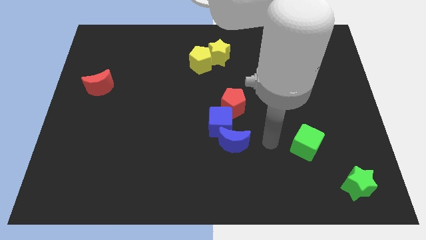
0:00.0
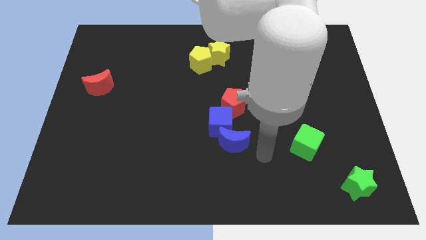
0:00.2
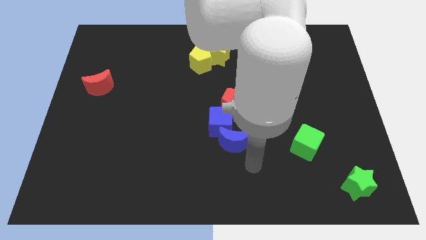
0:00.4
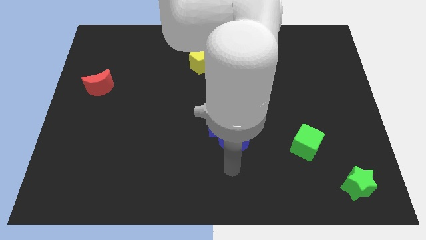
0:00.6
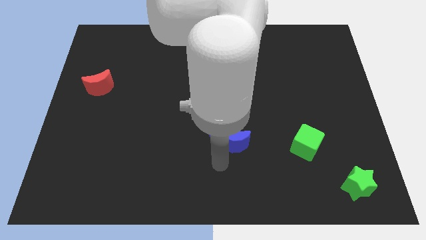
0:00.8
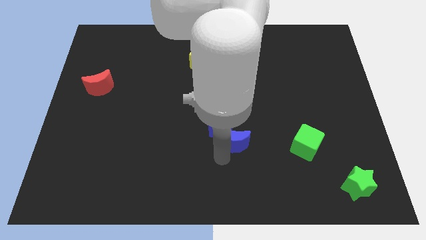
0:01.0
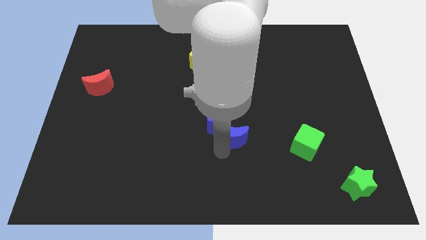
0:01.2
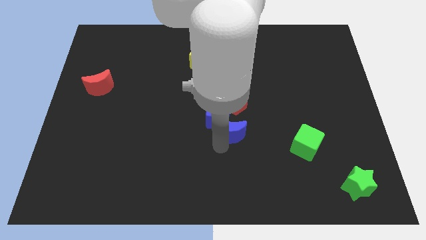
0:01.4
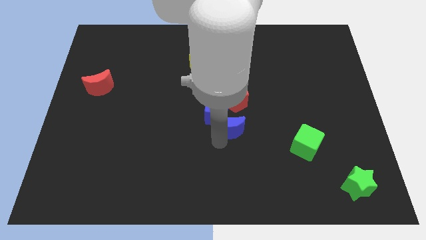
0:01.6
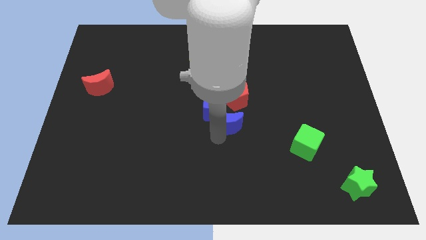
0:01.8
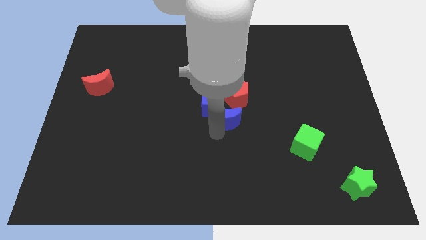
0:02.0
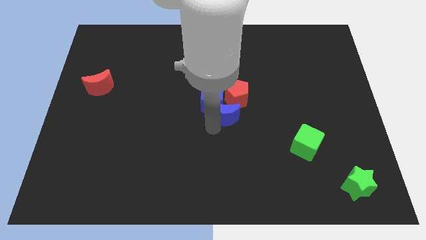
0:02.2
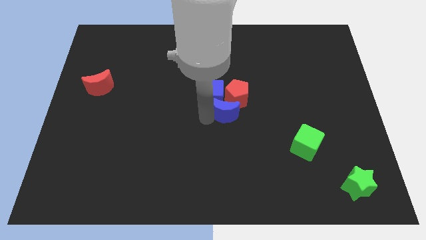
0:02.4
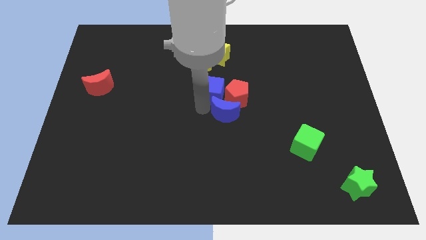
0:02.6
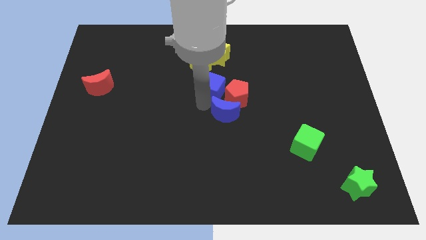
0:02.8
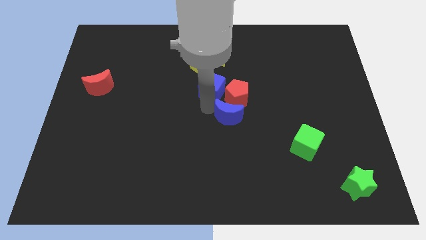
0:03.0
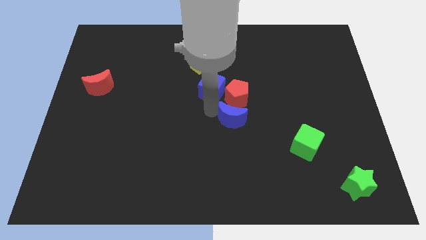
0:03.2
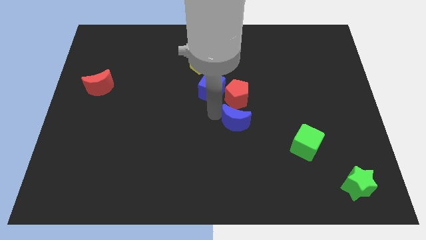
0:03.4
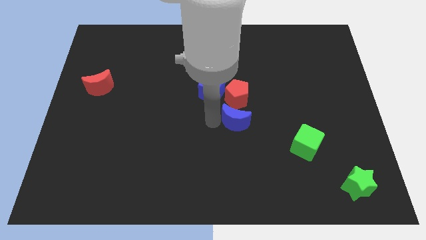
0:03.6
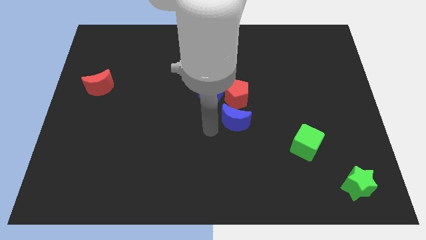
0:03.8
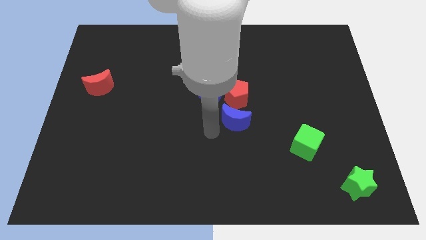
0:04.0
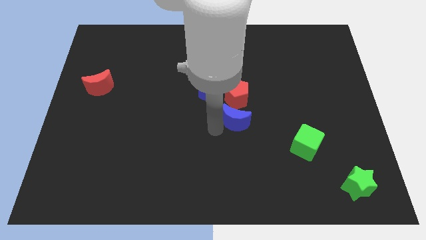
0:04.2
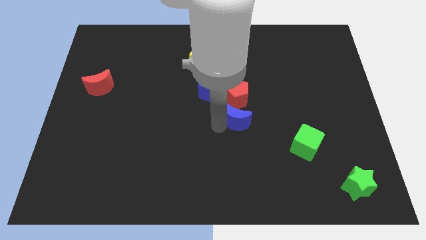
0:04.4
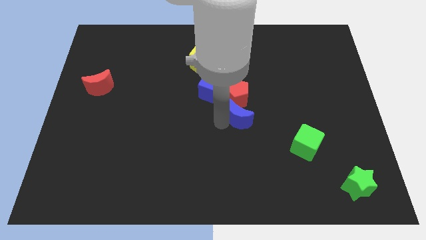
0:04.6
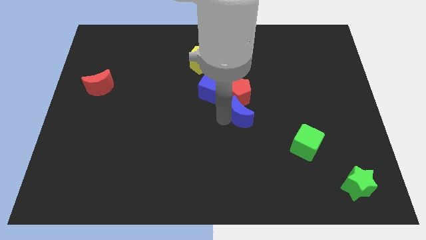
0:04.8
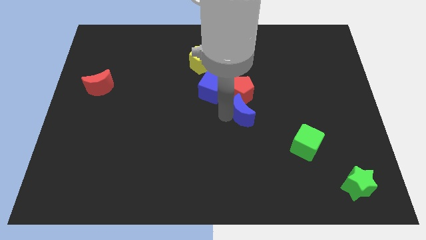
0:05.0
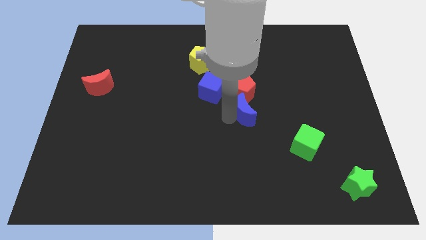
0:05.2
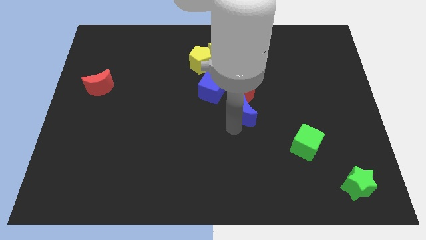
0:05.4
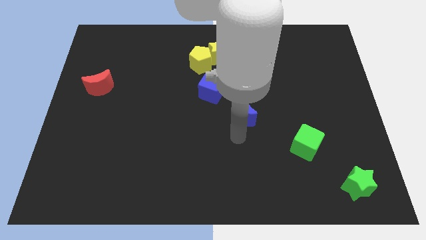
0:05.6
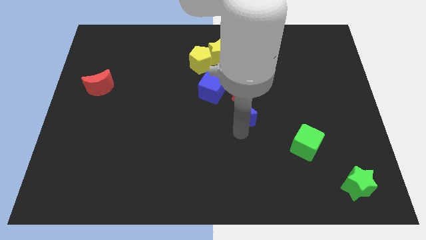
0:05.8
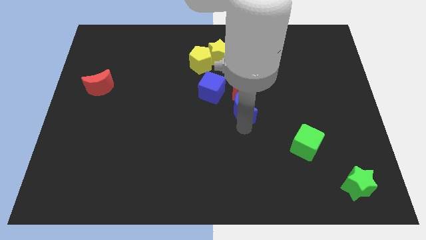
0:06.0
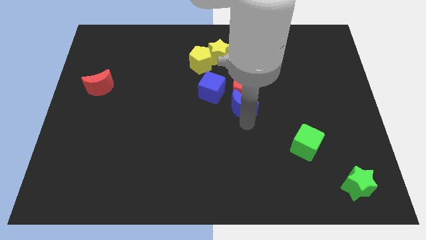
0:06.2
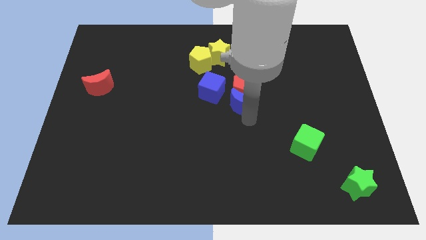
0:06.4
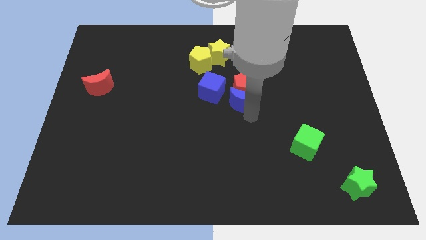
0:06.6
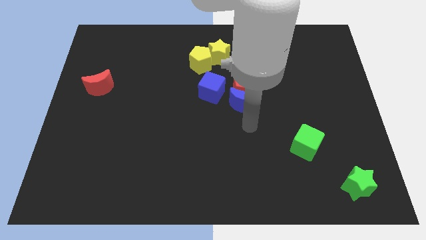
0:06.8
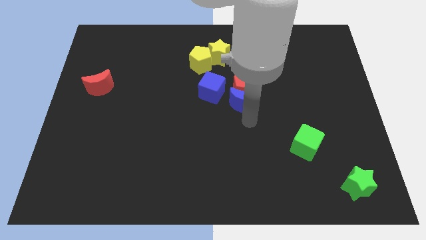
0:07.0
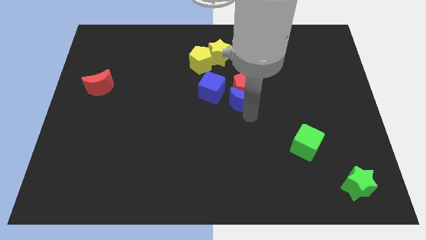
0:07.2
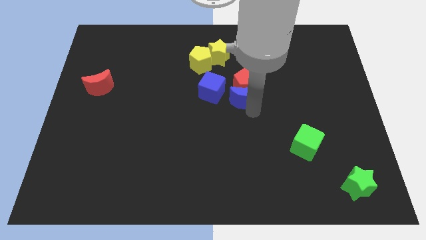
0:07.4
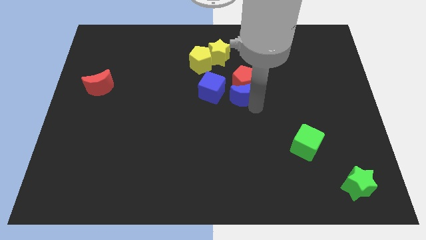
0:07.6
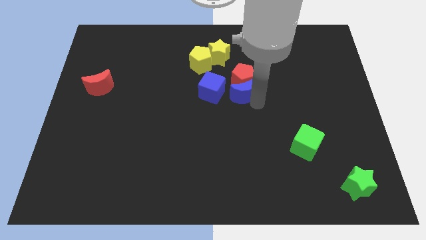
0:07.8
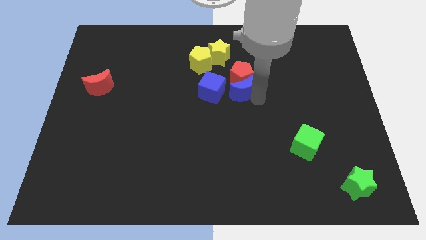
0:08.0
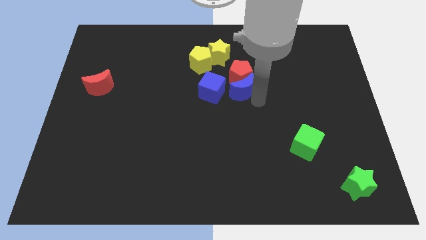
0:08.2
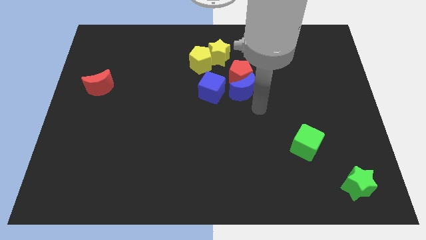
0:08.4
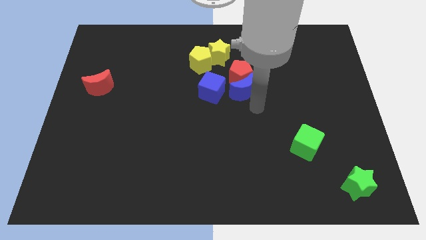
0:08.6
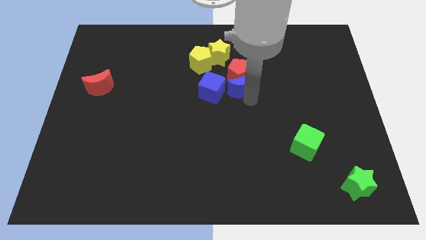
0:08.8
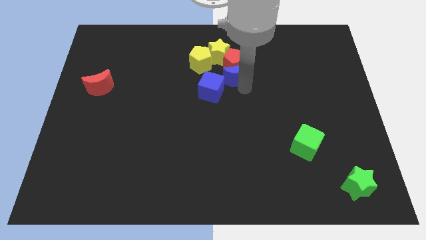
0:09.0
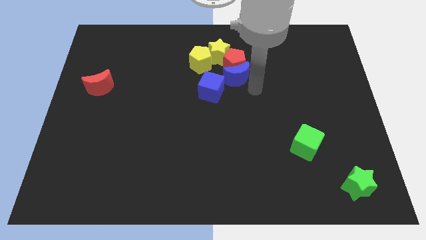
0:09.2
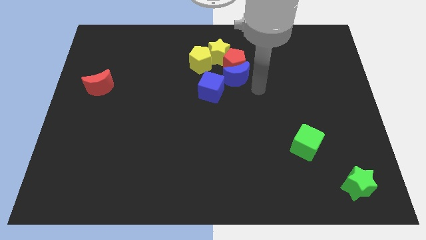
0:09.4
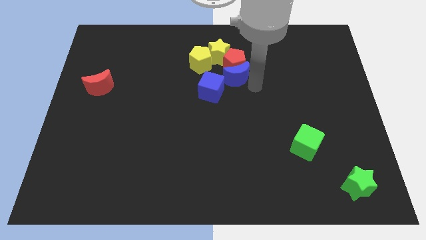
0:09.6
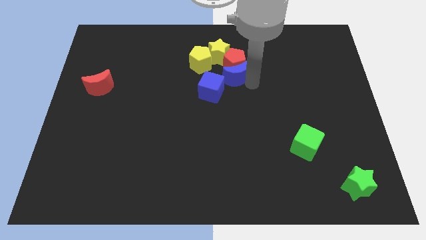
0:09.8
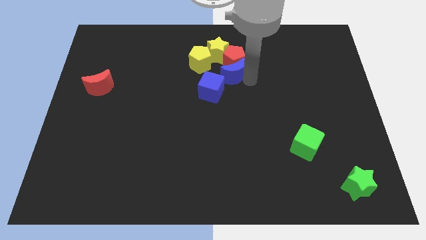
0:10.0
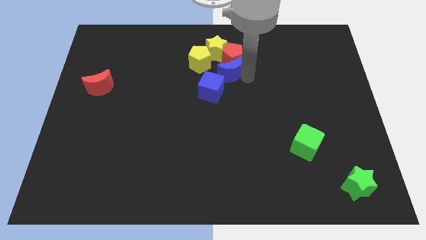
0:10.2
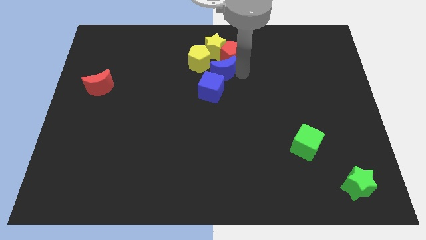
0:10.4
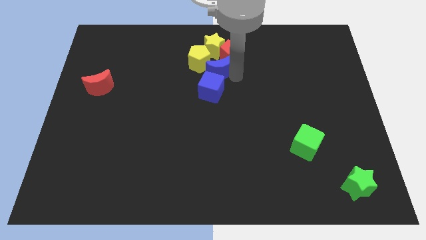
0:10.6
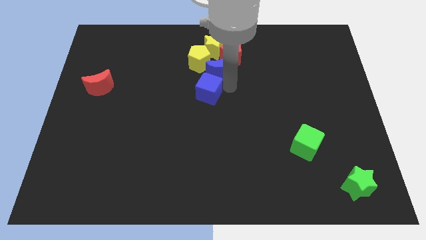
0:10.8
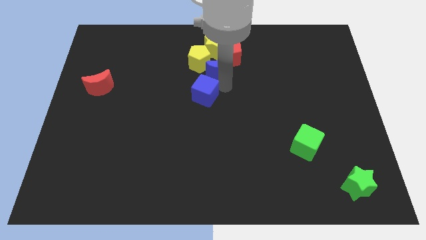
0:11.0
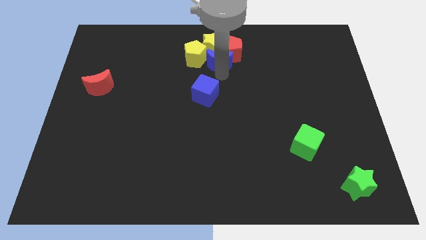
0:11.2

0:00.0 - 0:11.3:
push the blue moon close to the yellow star

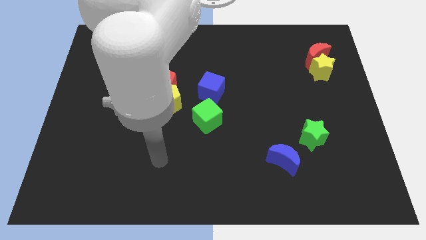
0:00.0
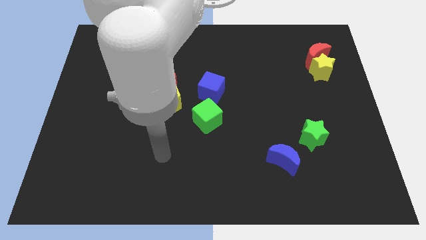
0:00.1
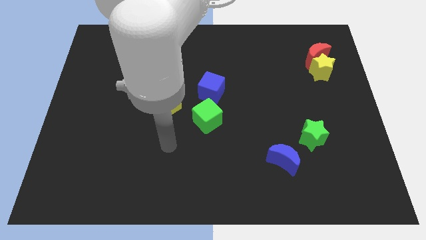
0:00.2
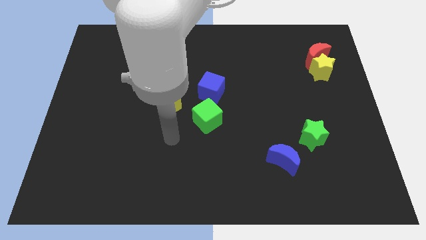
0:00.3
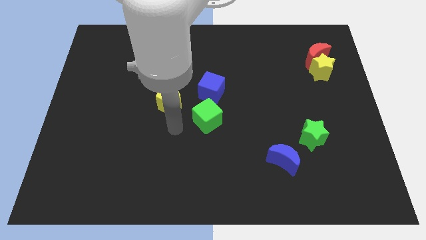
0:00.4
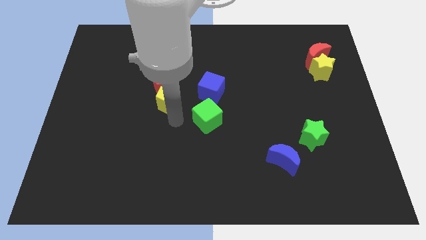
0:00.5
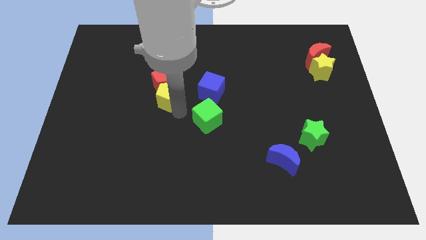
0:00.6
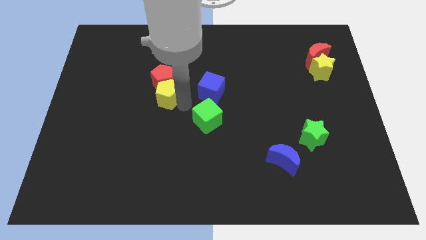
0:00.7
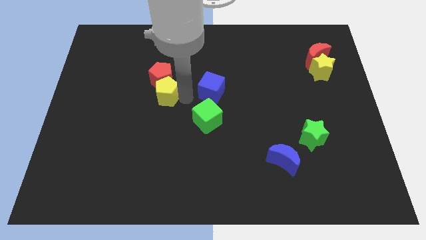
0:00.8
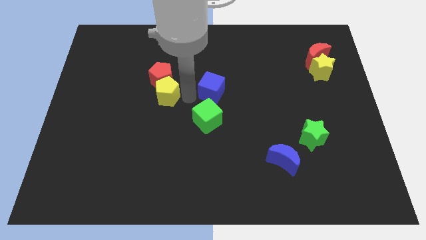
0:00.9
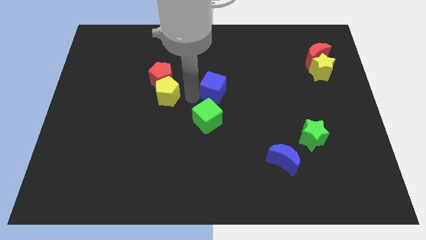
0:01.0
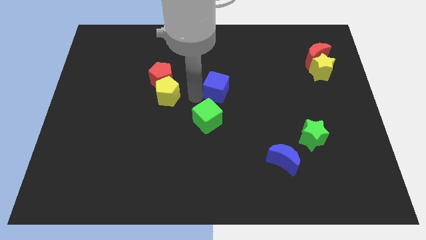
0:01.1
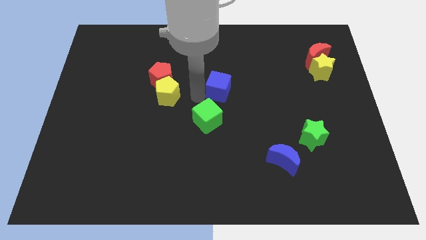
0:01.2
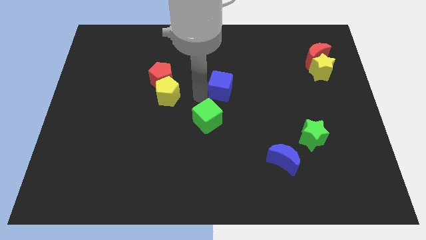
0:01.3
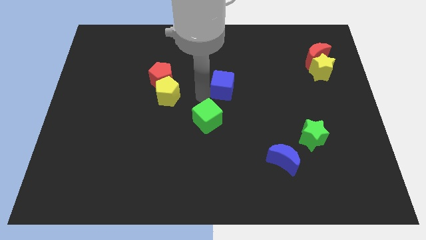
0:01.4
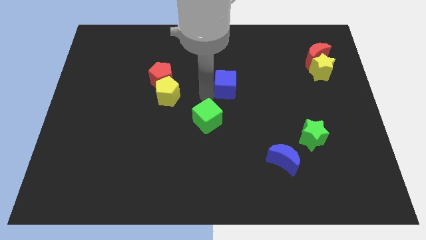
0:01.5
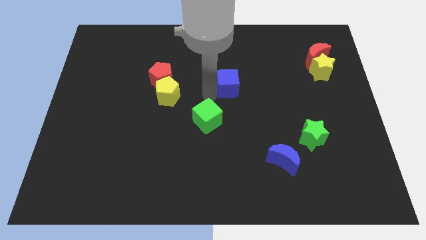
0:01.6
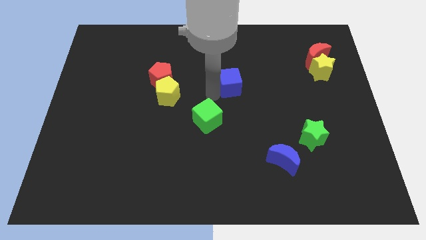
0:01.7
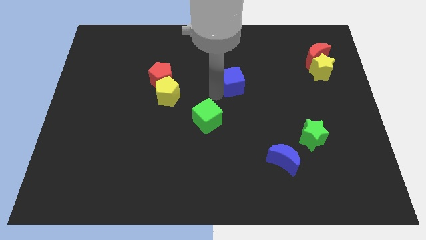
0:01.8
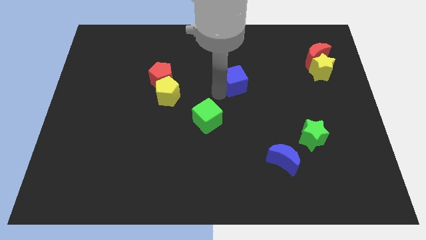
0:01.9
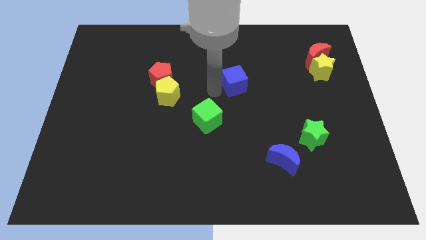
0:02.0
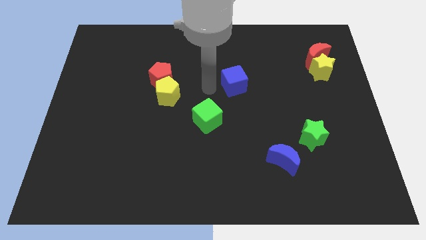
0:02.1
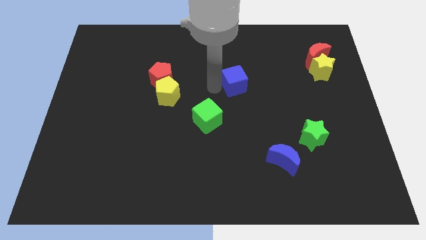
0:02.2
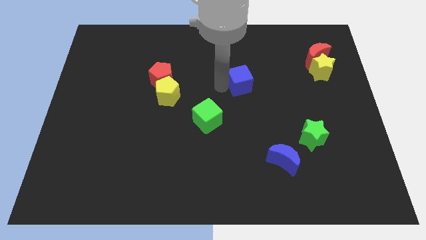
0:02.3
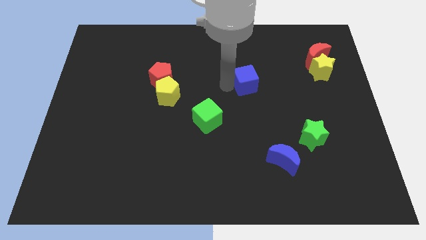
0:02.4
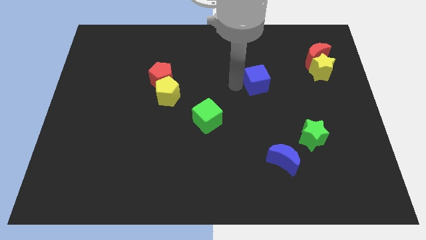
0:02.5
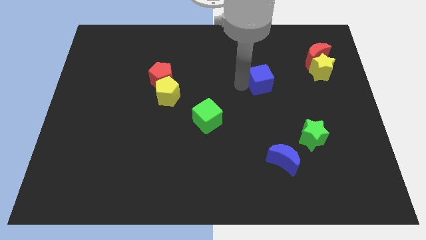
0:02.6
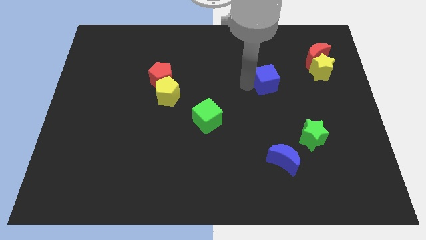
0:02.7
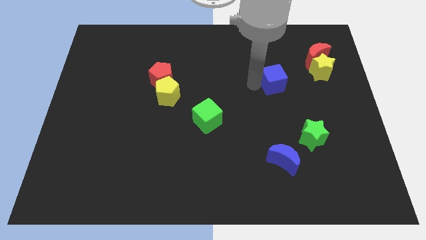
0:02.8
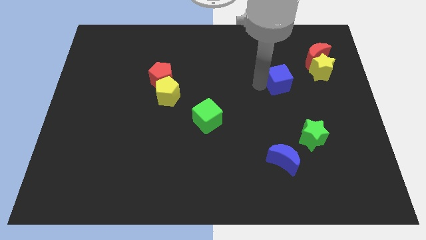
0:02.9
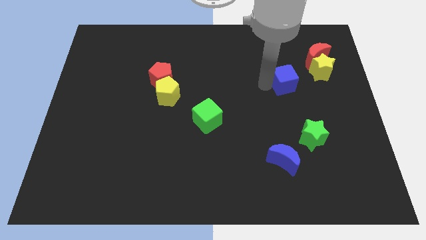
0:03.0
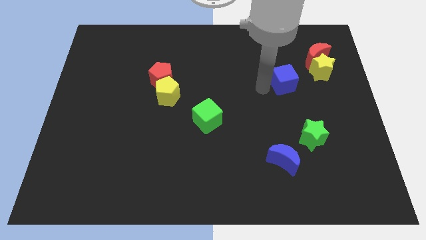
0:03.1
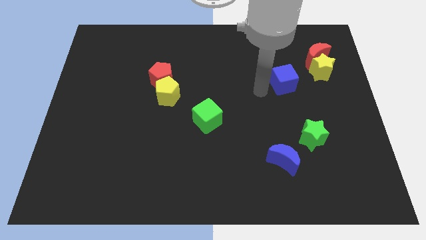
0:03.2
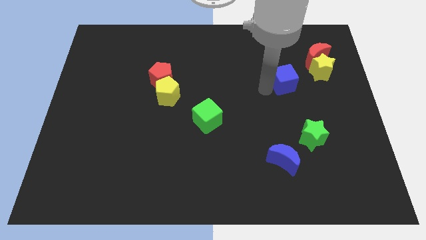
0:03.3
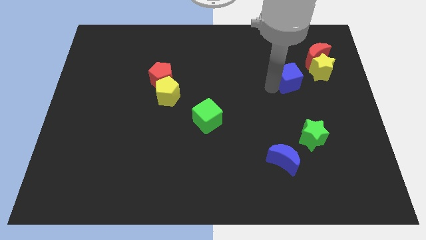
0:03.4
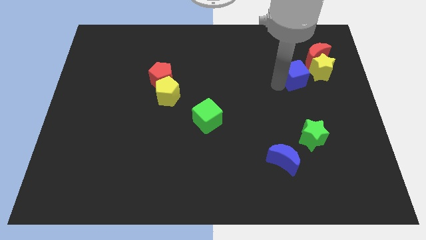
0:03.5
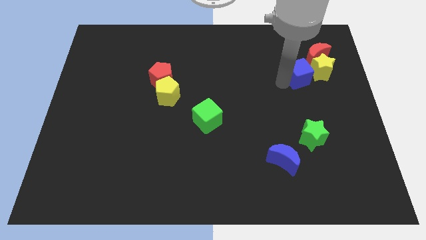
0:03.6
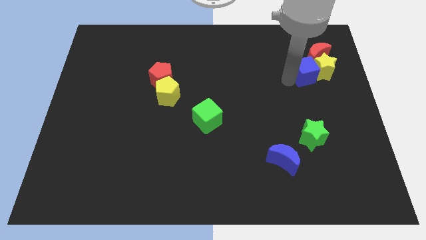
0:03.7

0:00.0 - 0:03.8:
put the blue cube towards the yellow star
